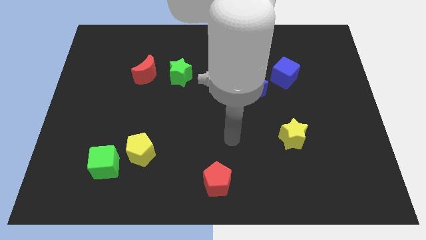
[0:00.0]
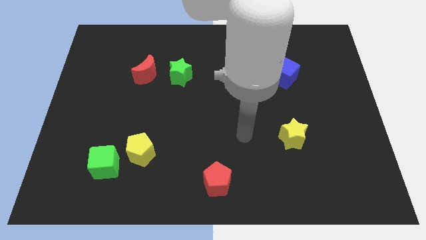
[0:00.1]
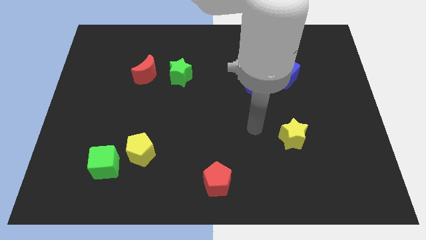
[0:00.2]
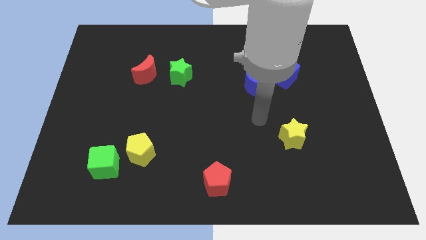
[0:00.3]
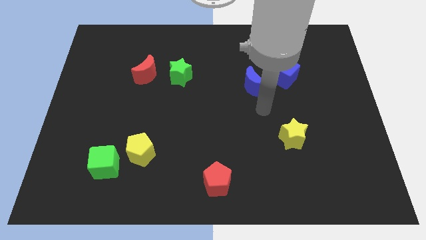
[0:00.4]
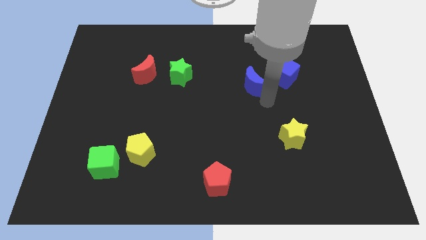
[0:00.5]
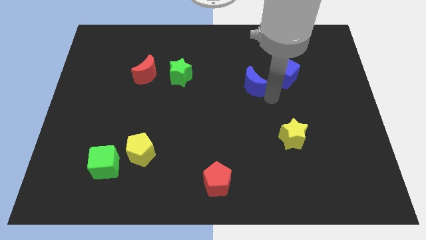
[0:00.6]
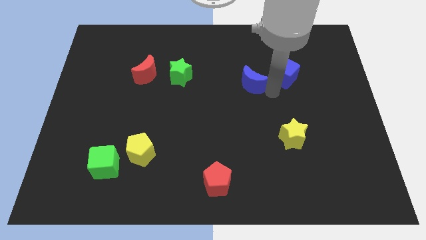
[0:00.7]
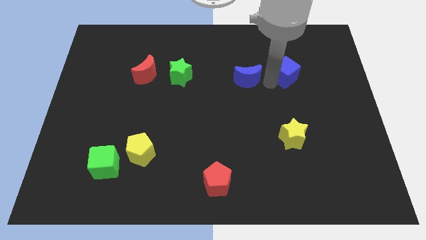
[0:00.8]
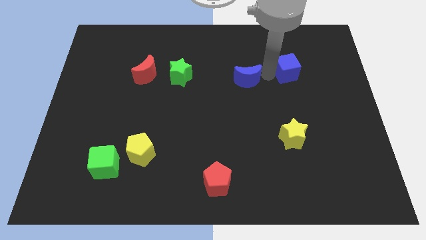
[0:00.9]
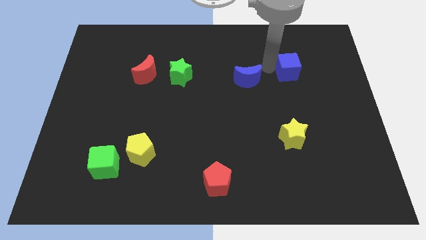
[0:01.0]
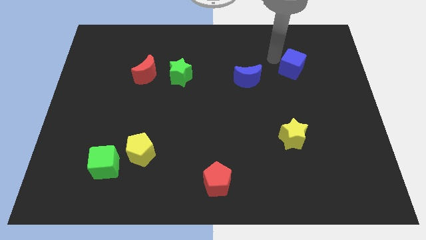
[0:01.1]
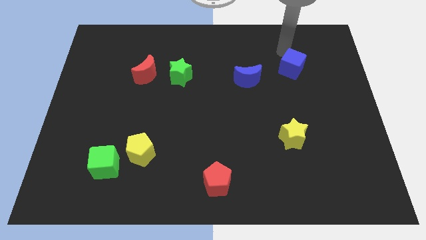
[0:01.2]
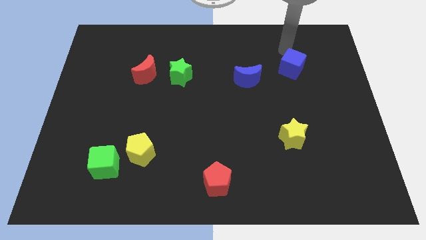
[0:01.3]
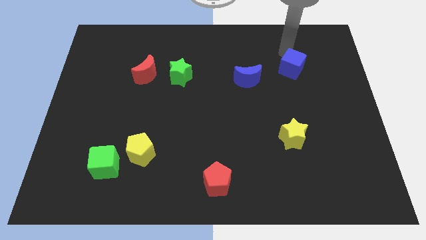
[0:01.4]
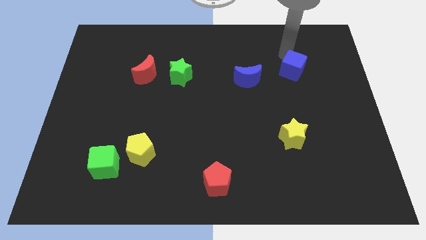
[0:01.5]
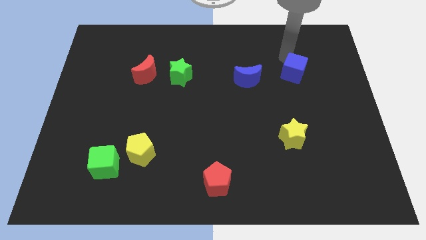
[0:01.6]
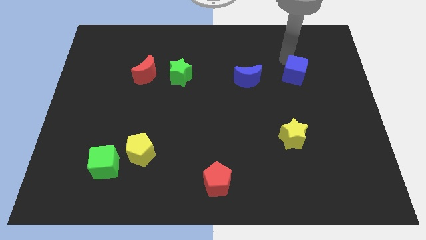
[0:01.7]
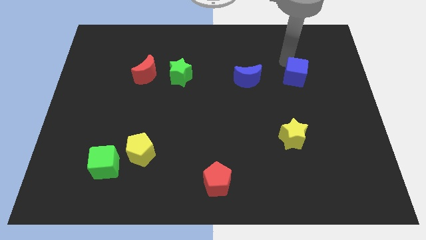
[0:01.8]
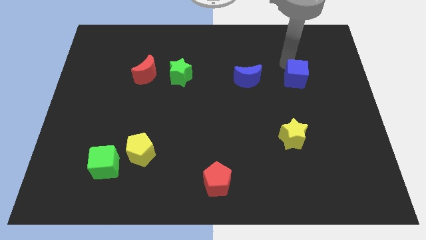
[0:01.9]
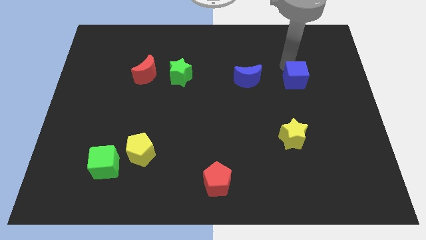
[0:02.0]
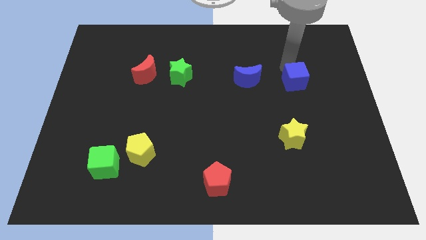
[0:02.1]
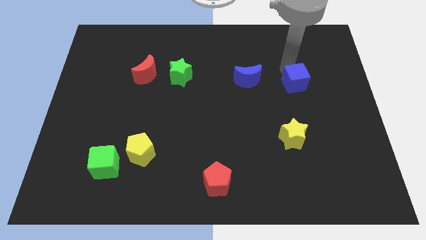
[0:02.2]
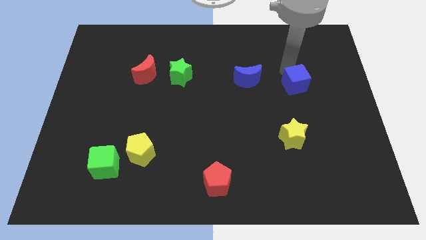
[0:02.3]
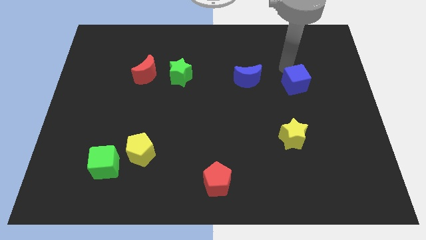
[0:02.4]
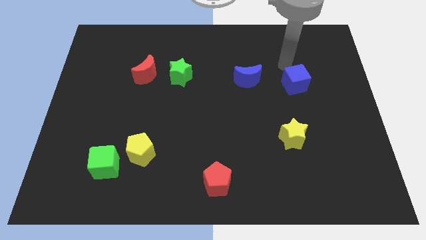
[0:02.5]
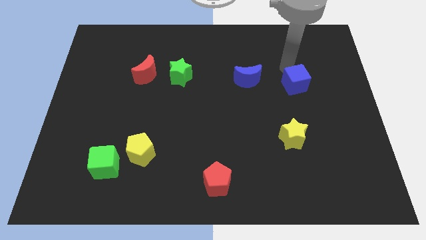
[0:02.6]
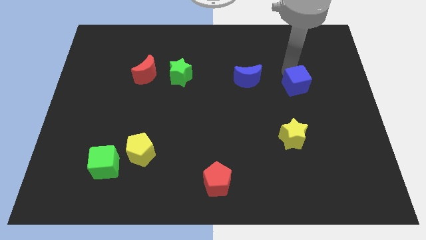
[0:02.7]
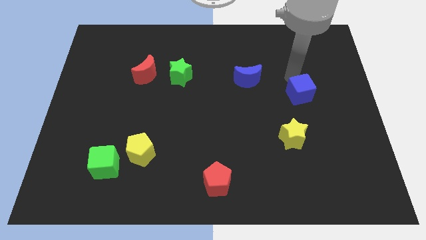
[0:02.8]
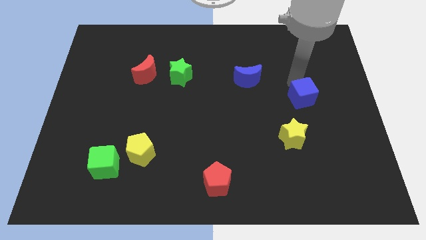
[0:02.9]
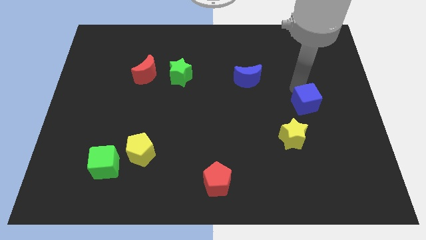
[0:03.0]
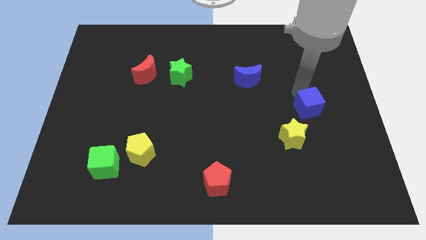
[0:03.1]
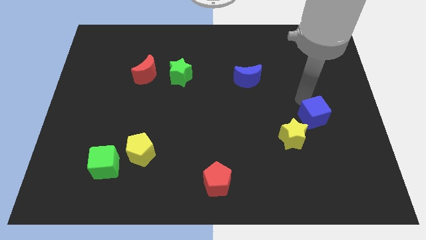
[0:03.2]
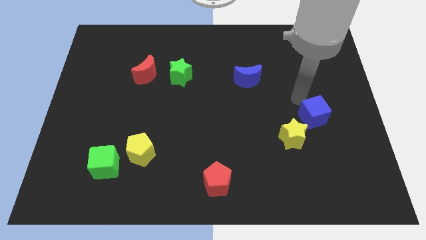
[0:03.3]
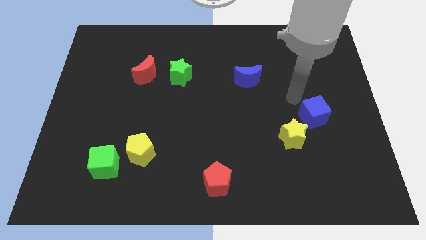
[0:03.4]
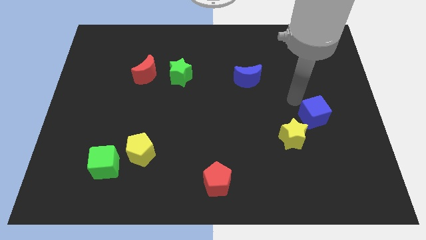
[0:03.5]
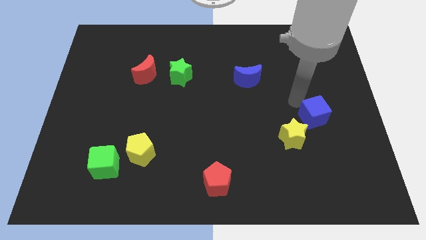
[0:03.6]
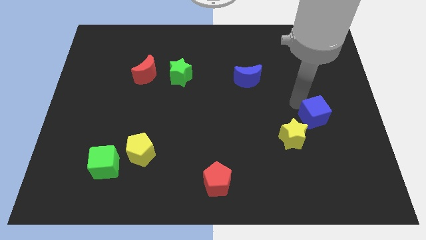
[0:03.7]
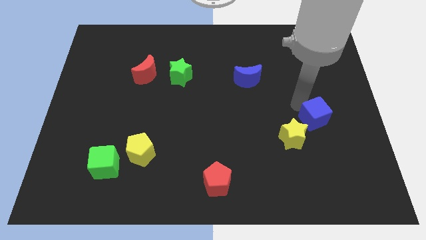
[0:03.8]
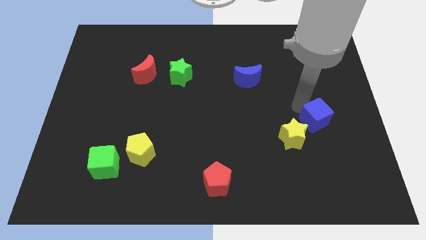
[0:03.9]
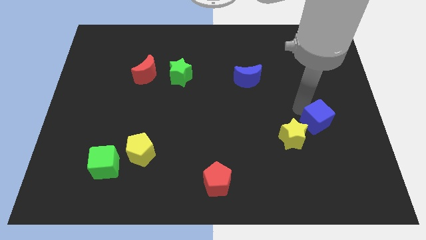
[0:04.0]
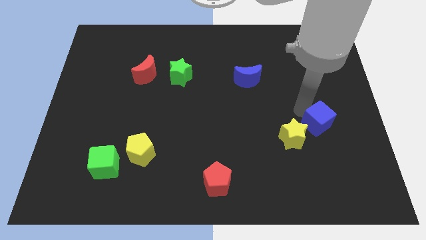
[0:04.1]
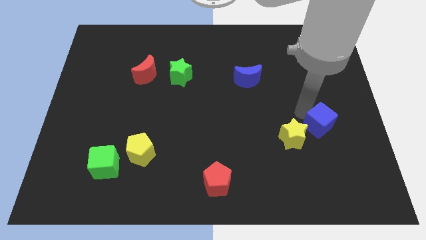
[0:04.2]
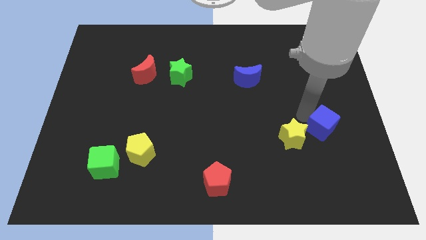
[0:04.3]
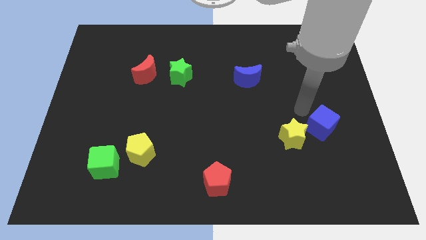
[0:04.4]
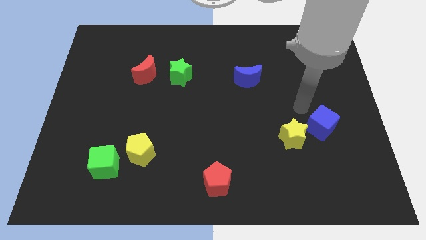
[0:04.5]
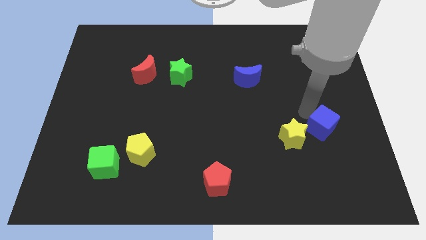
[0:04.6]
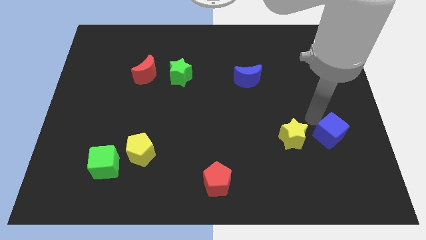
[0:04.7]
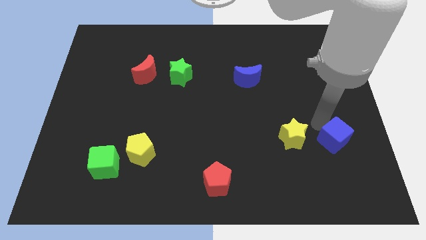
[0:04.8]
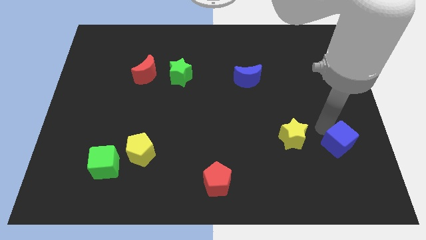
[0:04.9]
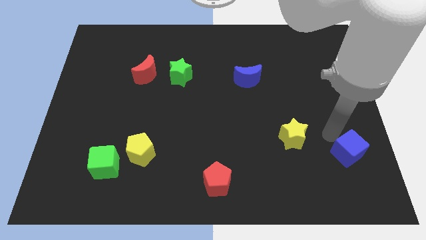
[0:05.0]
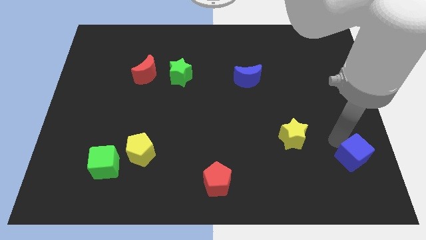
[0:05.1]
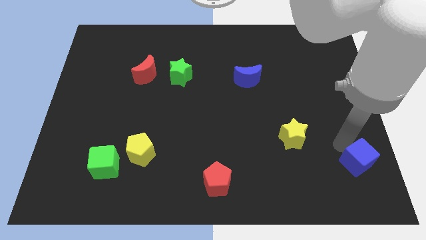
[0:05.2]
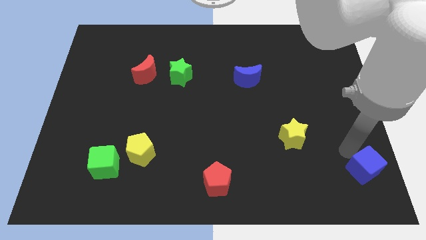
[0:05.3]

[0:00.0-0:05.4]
move the blue cube to the bottom right of the board

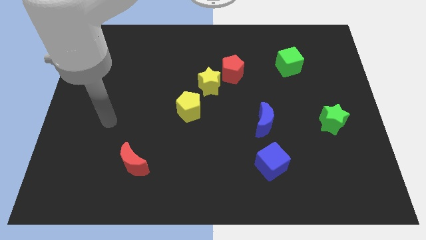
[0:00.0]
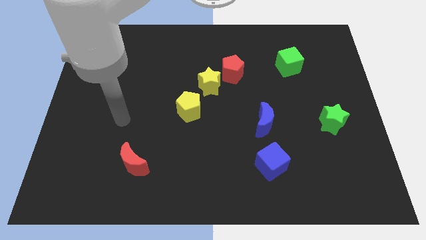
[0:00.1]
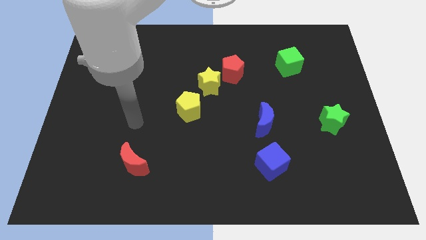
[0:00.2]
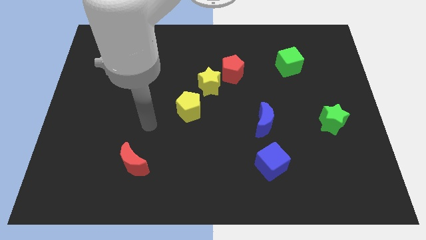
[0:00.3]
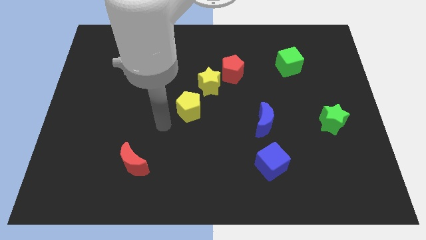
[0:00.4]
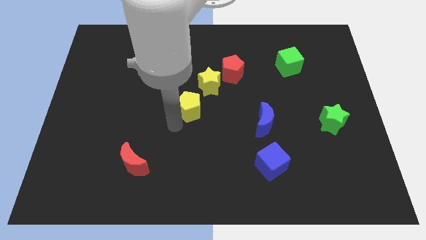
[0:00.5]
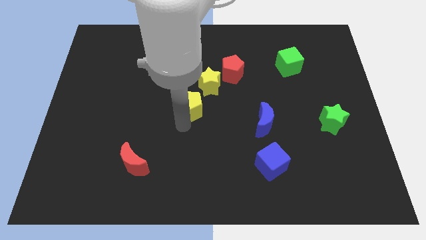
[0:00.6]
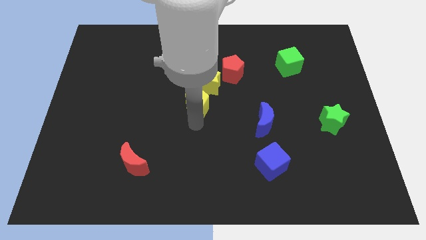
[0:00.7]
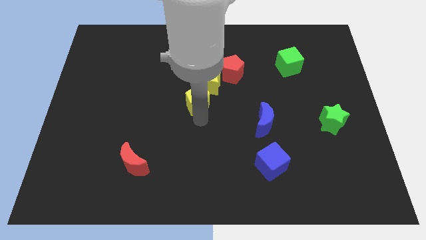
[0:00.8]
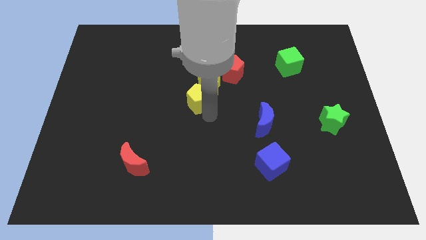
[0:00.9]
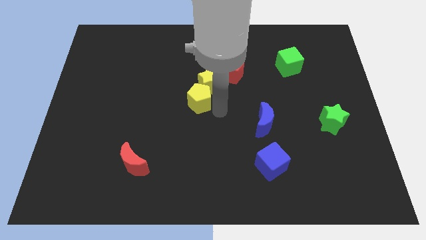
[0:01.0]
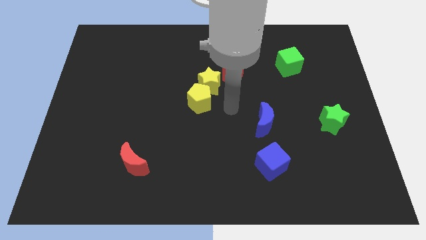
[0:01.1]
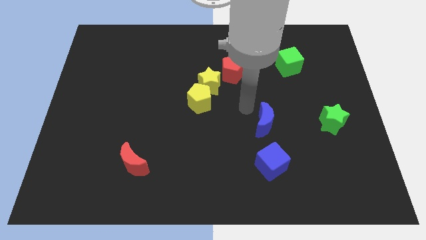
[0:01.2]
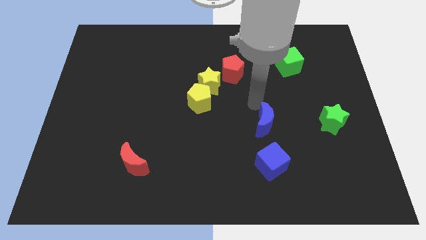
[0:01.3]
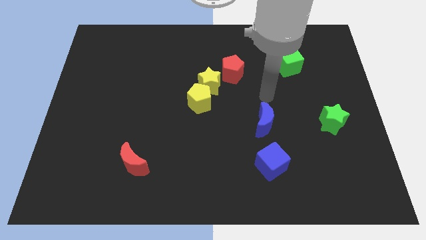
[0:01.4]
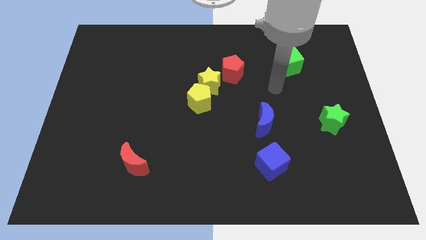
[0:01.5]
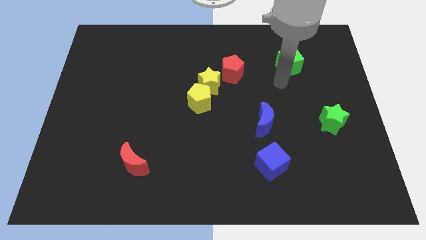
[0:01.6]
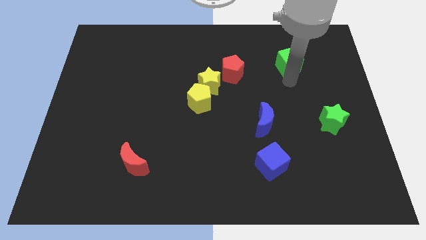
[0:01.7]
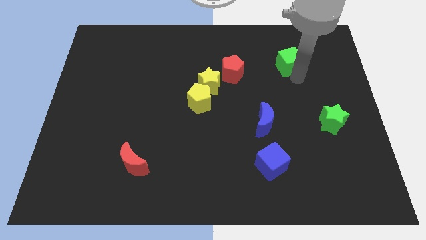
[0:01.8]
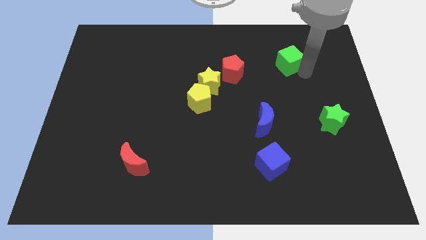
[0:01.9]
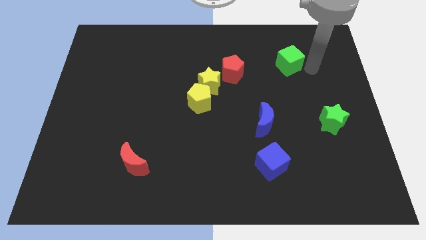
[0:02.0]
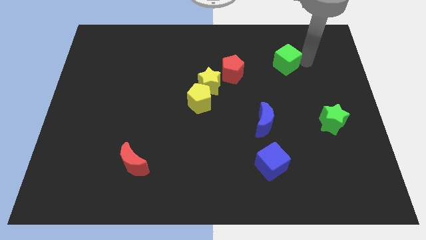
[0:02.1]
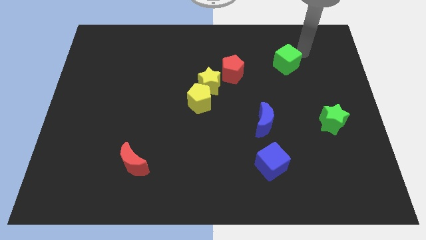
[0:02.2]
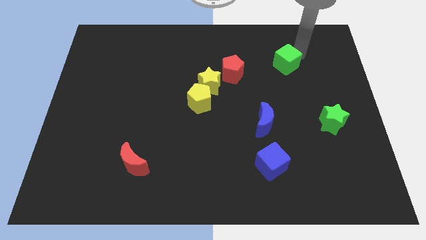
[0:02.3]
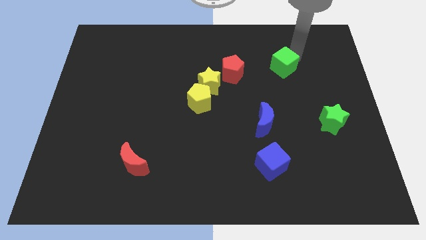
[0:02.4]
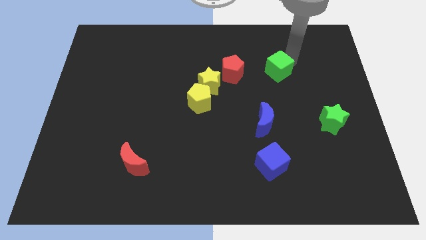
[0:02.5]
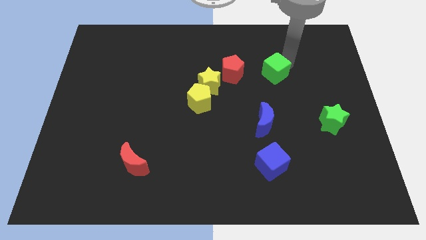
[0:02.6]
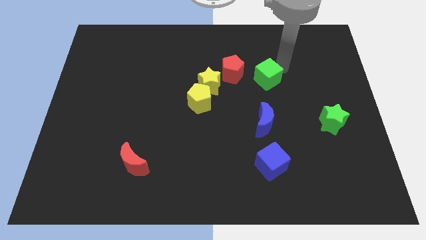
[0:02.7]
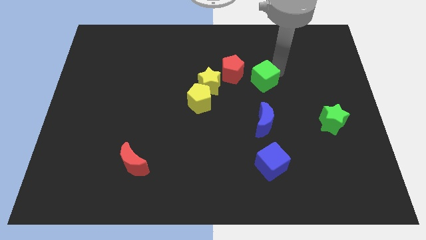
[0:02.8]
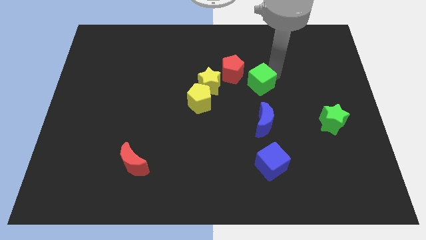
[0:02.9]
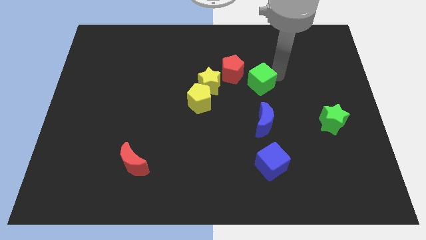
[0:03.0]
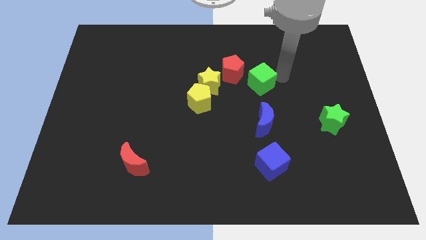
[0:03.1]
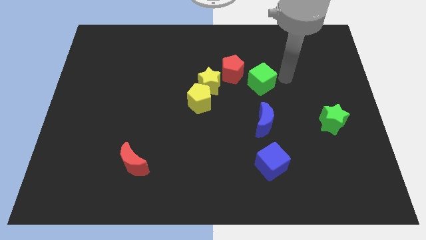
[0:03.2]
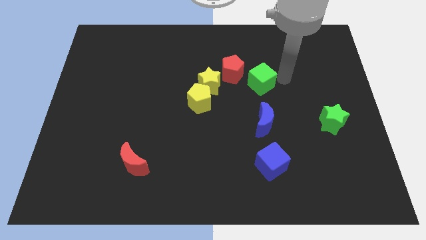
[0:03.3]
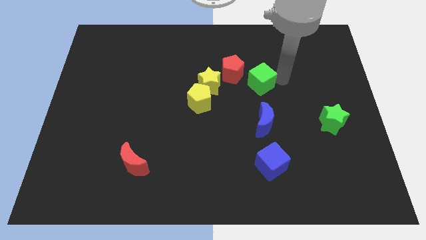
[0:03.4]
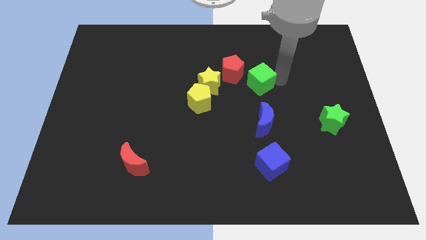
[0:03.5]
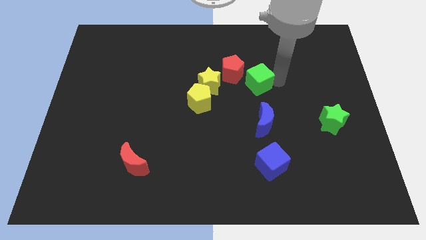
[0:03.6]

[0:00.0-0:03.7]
slide the green cube to the center of the board
